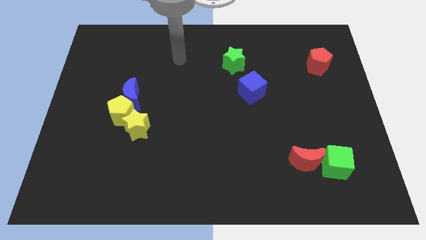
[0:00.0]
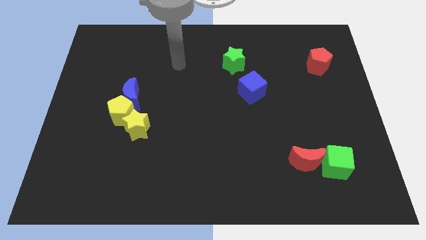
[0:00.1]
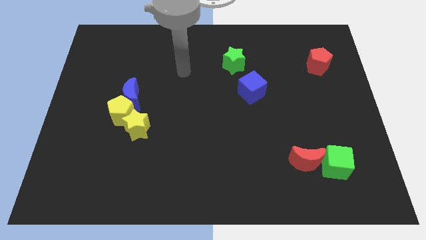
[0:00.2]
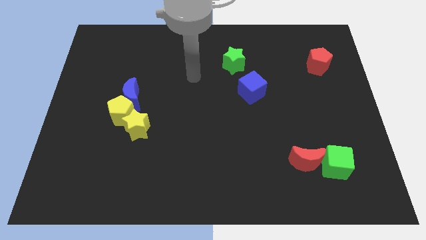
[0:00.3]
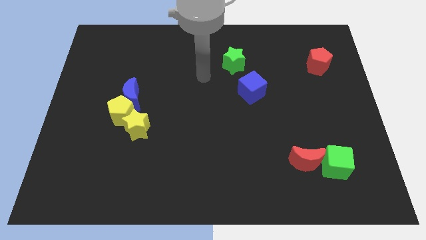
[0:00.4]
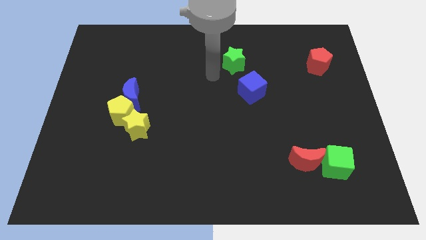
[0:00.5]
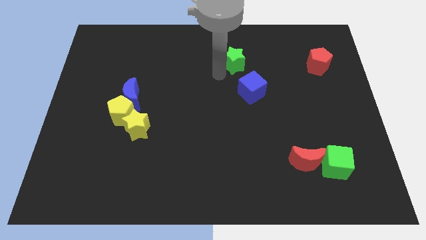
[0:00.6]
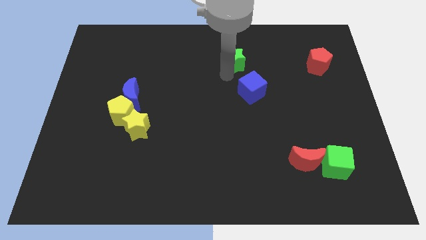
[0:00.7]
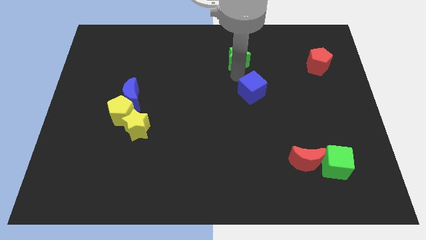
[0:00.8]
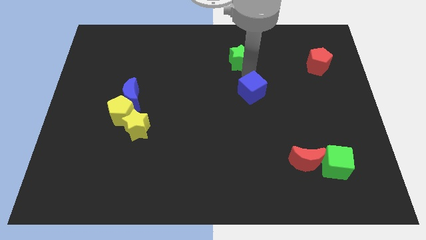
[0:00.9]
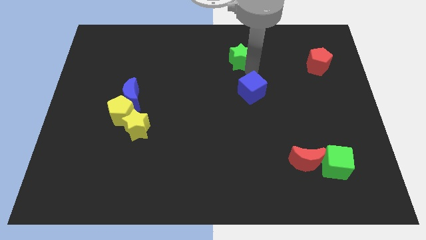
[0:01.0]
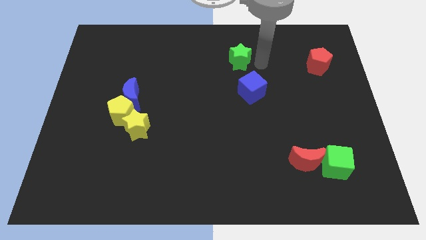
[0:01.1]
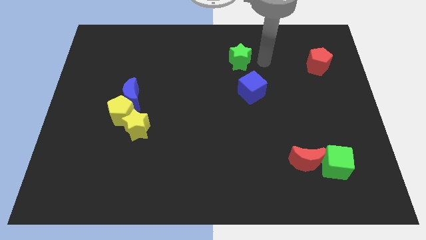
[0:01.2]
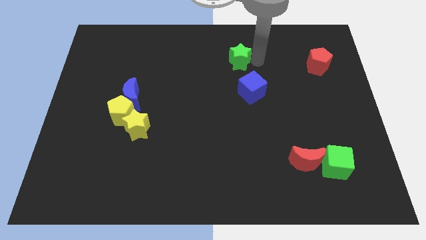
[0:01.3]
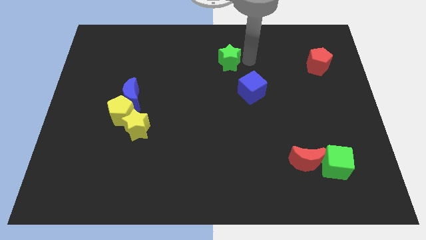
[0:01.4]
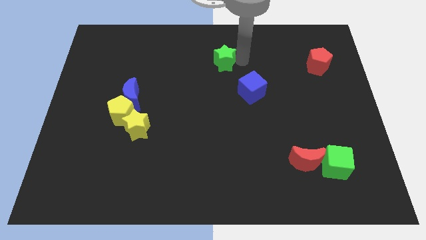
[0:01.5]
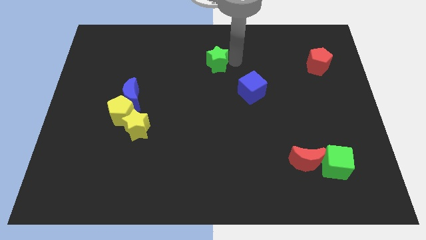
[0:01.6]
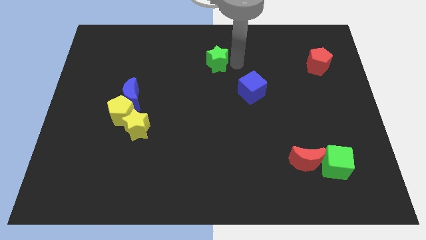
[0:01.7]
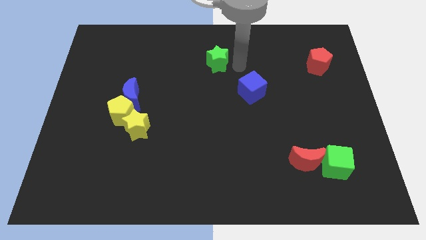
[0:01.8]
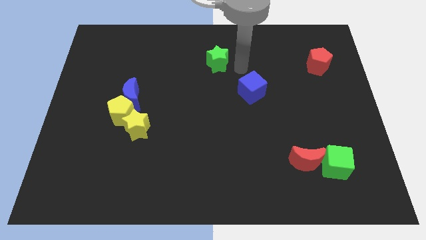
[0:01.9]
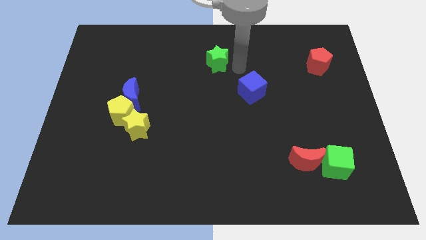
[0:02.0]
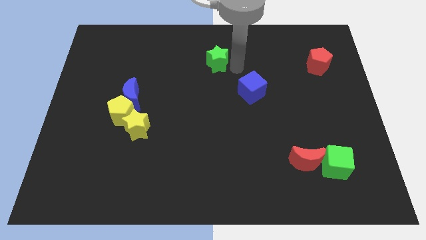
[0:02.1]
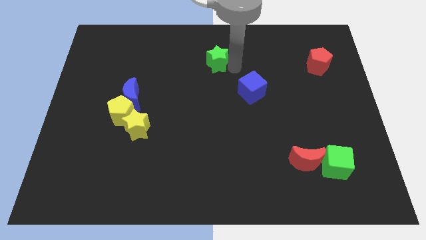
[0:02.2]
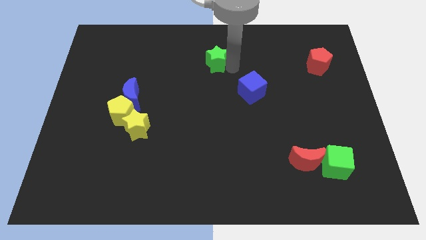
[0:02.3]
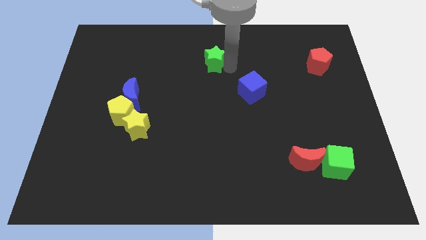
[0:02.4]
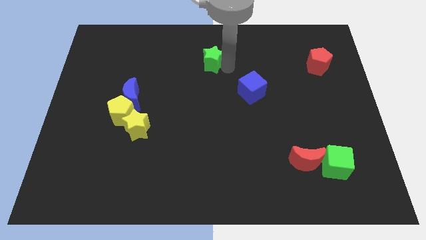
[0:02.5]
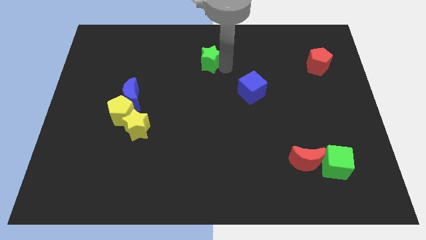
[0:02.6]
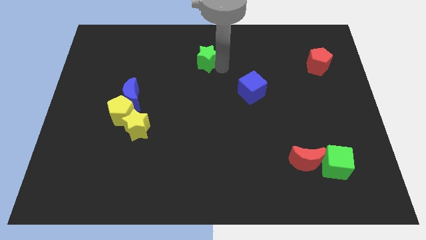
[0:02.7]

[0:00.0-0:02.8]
slightly move the green star to the left

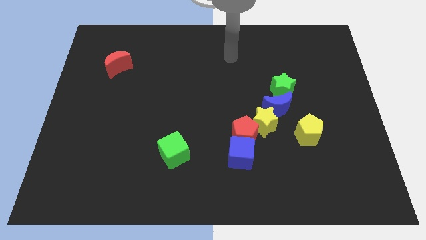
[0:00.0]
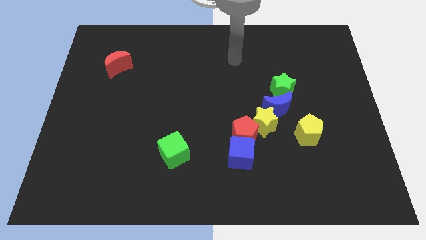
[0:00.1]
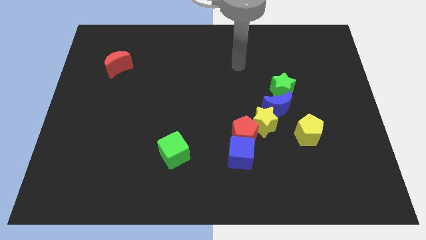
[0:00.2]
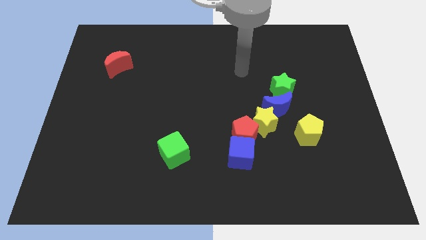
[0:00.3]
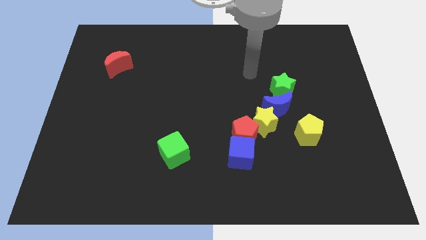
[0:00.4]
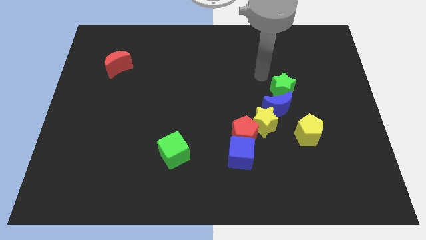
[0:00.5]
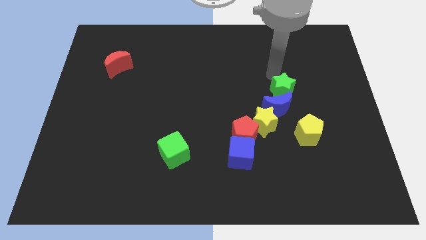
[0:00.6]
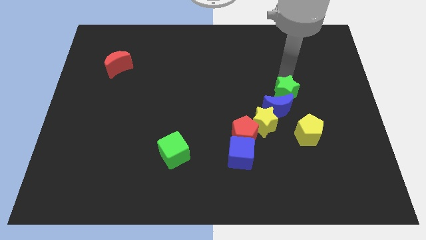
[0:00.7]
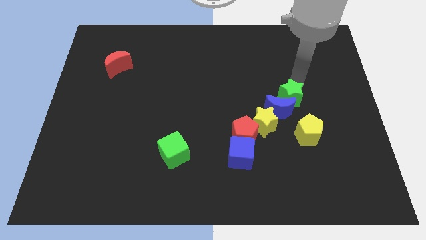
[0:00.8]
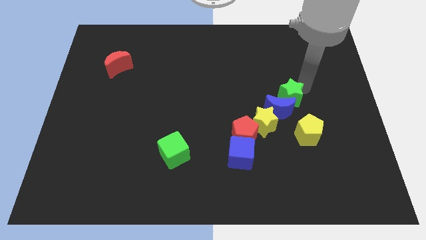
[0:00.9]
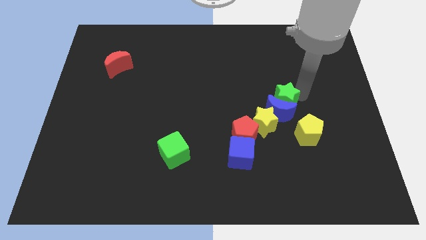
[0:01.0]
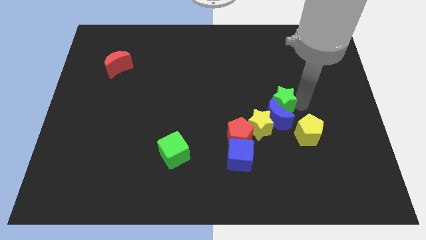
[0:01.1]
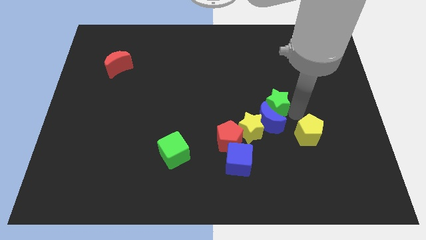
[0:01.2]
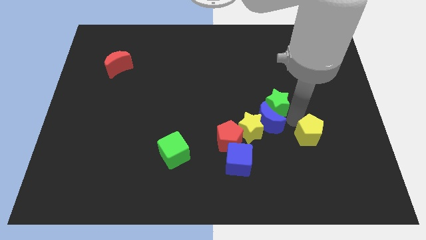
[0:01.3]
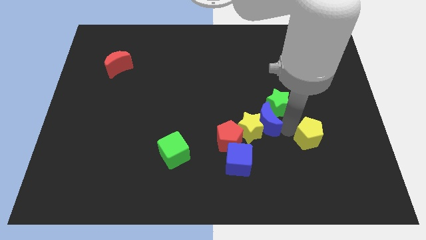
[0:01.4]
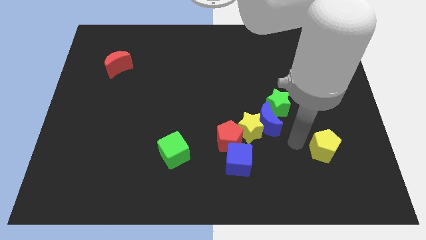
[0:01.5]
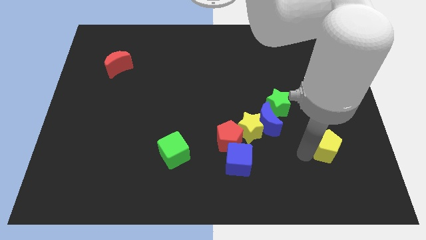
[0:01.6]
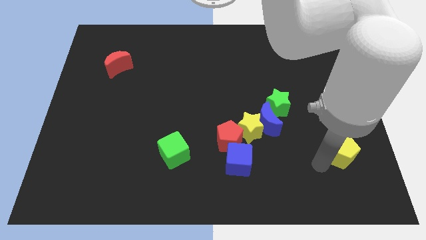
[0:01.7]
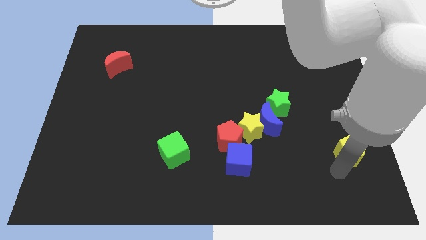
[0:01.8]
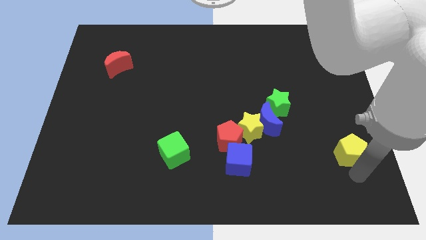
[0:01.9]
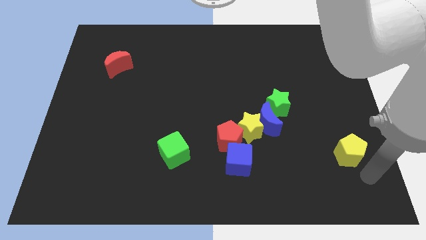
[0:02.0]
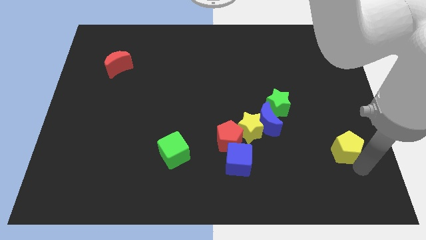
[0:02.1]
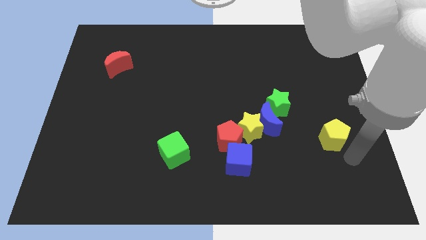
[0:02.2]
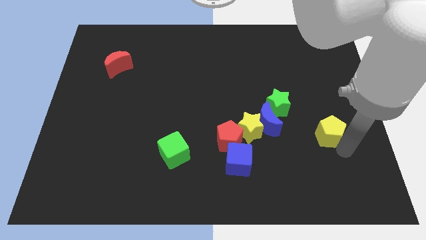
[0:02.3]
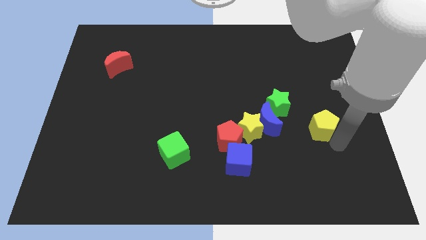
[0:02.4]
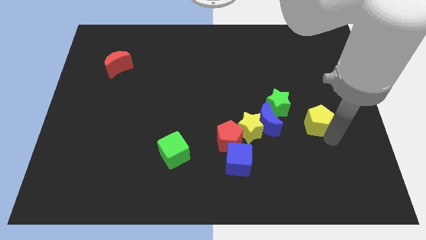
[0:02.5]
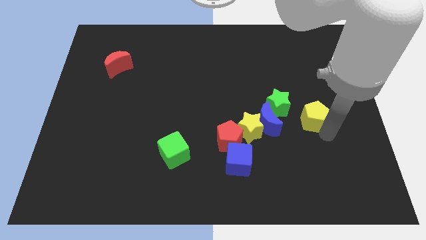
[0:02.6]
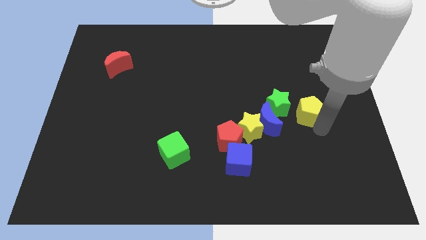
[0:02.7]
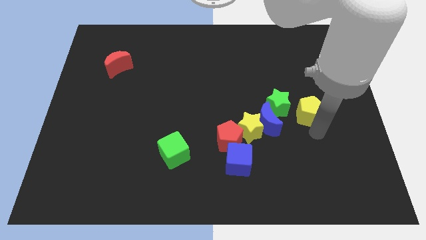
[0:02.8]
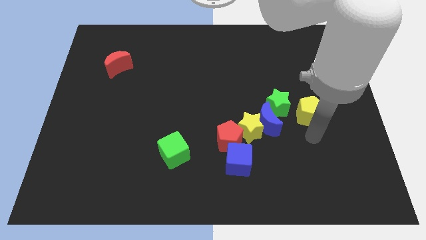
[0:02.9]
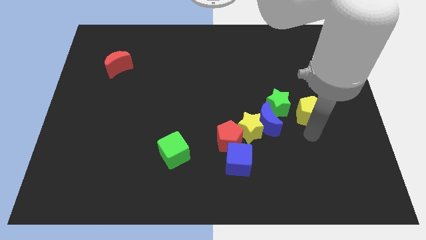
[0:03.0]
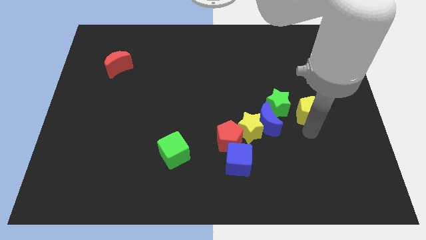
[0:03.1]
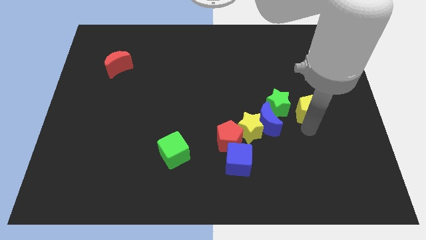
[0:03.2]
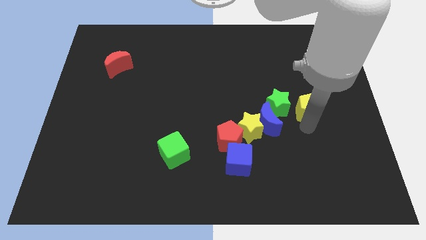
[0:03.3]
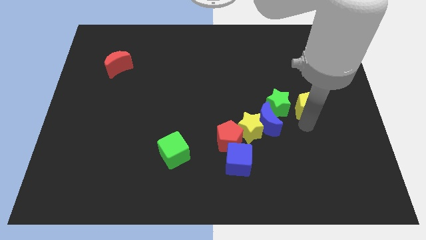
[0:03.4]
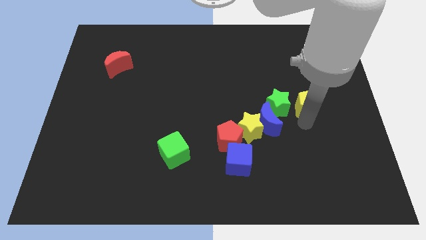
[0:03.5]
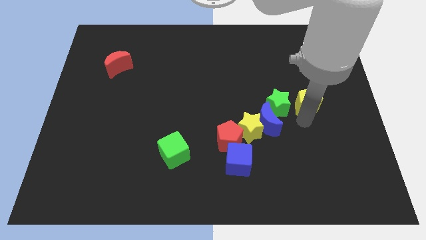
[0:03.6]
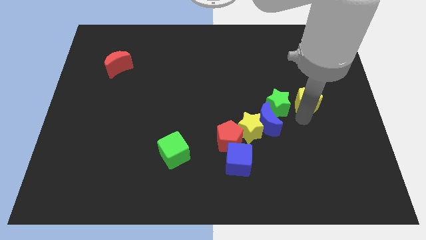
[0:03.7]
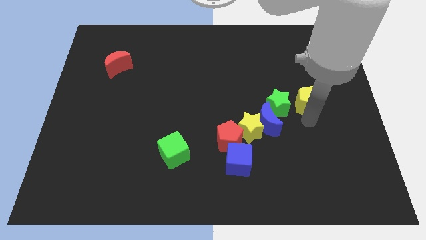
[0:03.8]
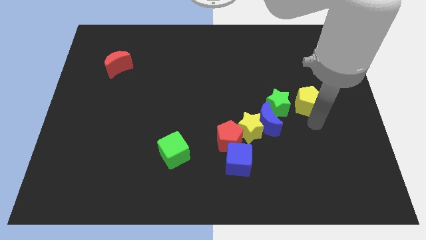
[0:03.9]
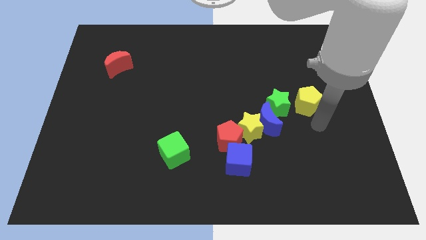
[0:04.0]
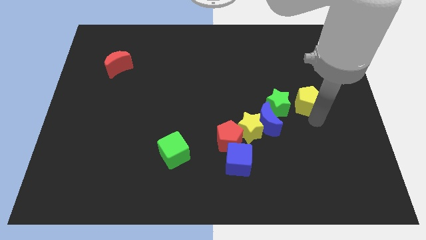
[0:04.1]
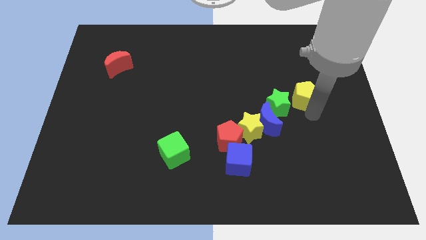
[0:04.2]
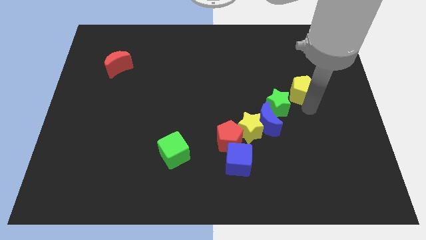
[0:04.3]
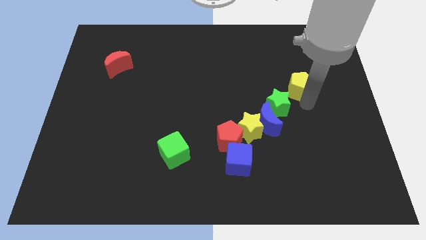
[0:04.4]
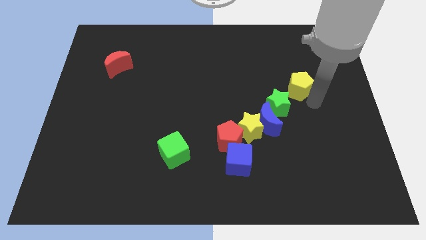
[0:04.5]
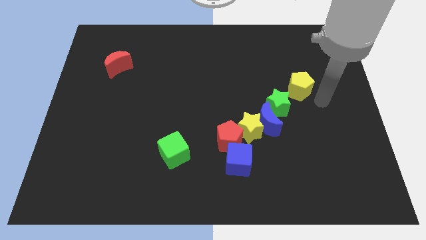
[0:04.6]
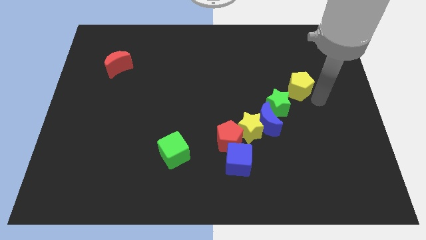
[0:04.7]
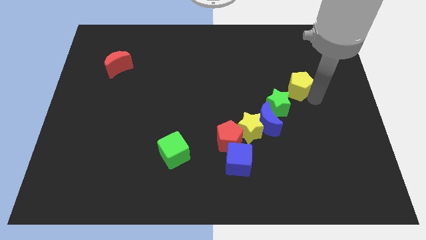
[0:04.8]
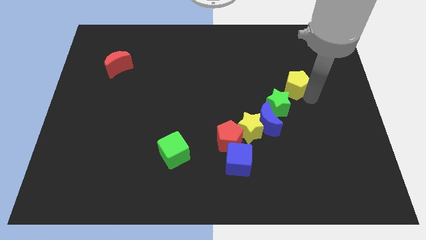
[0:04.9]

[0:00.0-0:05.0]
slide the yellow pentagon a little bit upwards and left diagonally

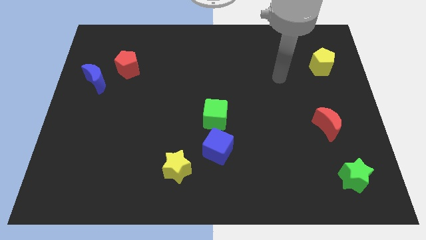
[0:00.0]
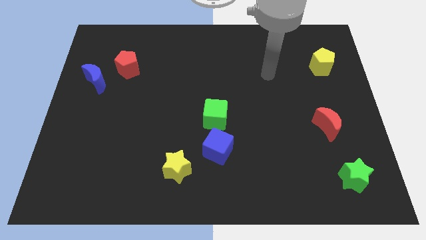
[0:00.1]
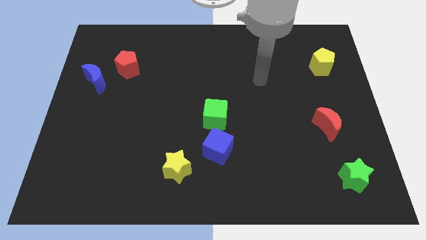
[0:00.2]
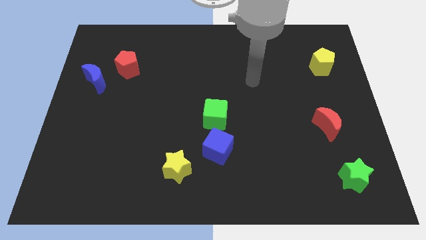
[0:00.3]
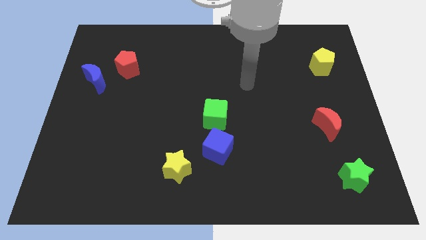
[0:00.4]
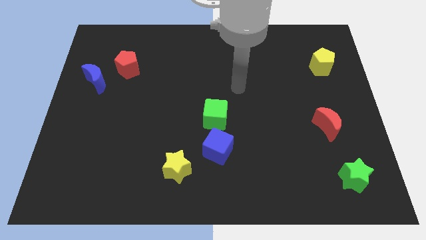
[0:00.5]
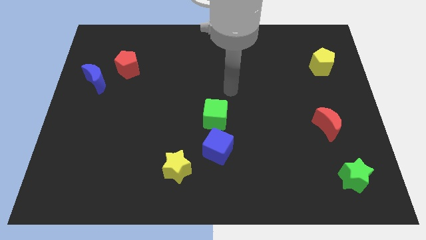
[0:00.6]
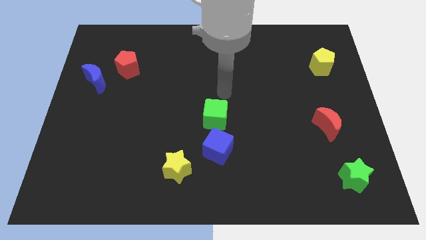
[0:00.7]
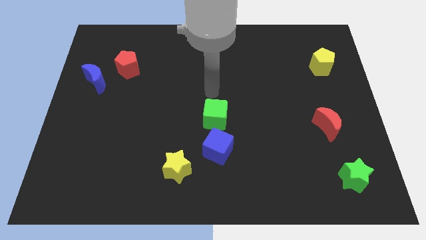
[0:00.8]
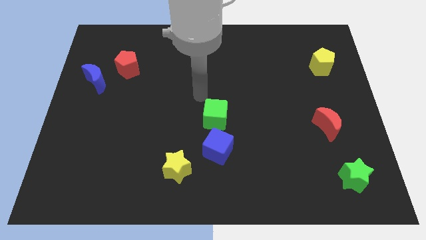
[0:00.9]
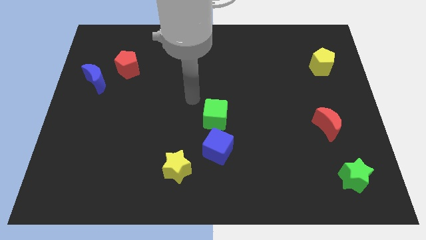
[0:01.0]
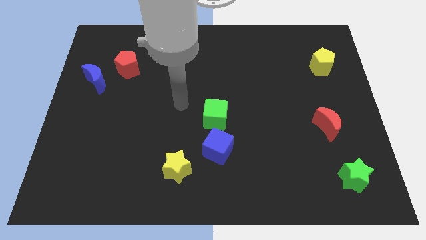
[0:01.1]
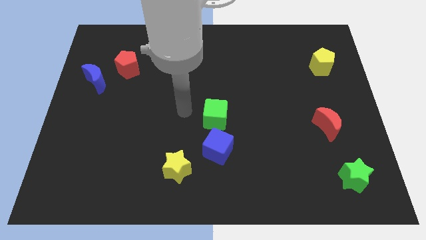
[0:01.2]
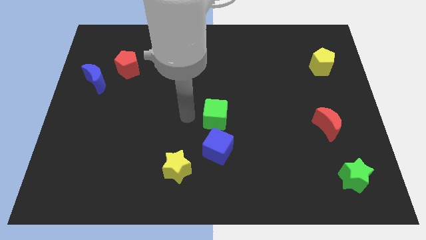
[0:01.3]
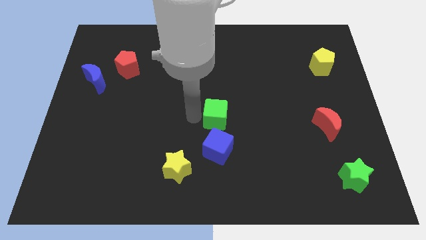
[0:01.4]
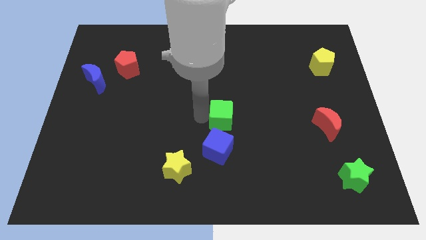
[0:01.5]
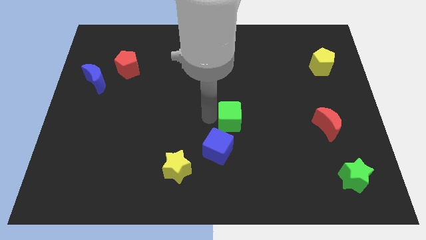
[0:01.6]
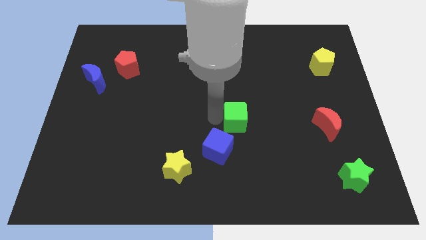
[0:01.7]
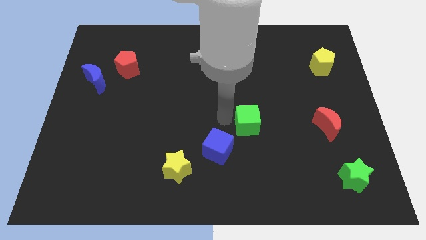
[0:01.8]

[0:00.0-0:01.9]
slightly slide the green cube right
